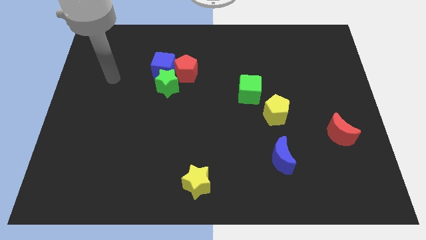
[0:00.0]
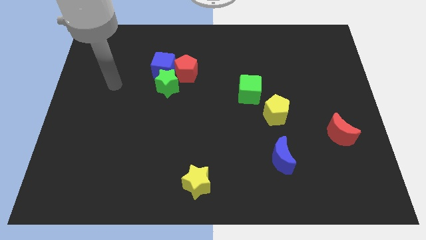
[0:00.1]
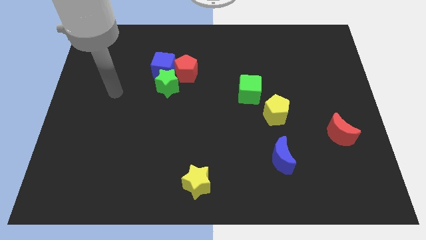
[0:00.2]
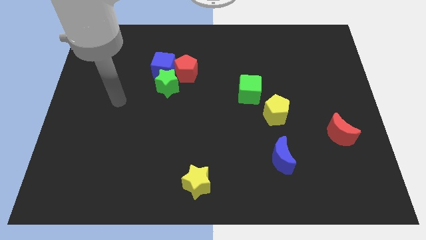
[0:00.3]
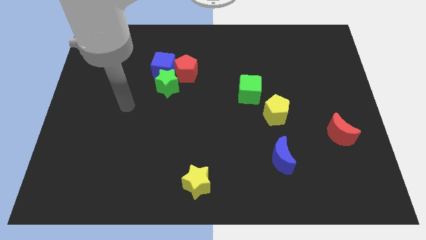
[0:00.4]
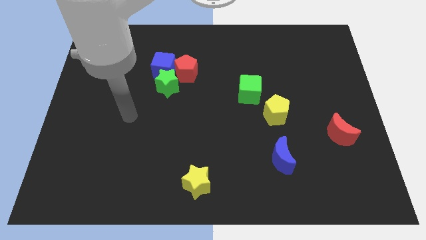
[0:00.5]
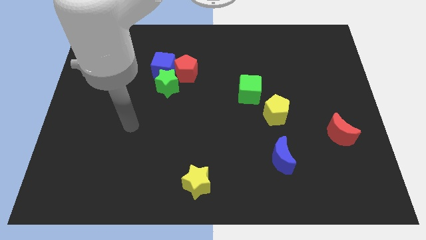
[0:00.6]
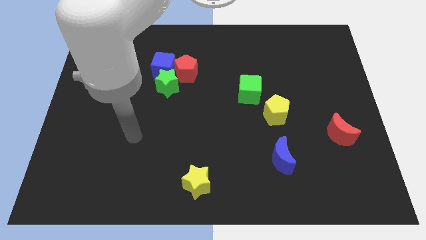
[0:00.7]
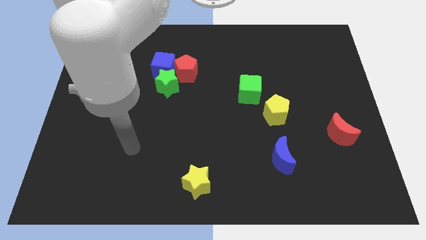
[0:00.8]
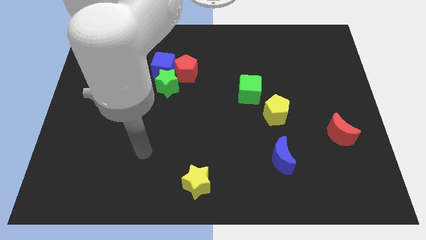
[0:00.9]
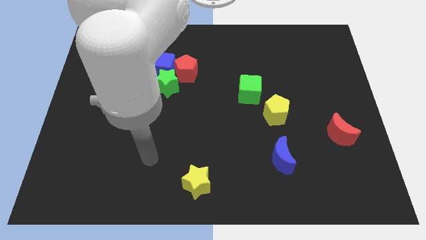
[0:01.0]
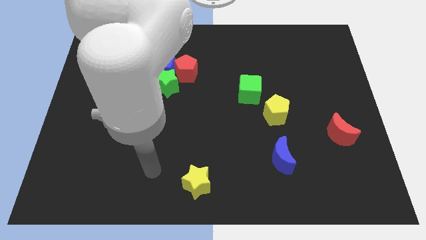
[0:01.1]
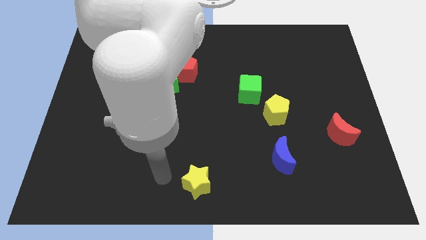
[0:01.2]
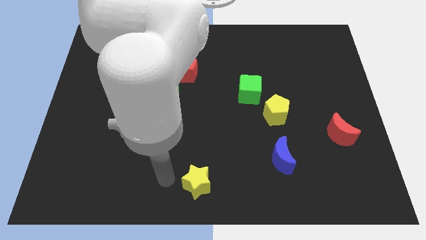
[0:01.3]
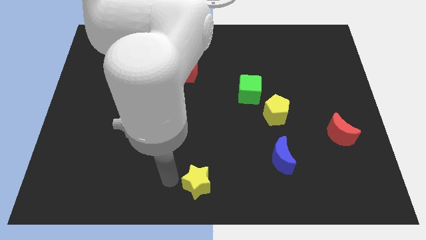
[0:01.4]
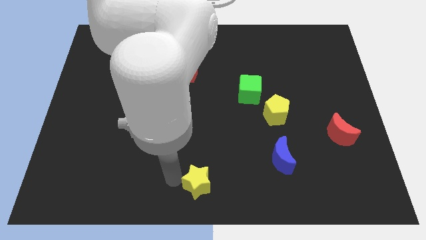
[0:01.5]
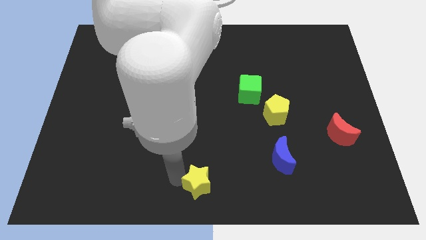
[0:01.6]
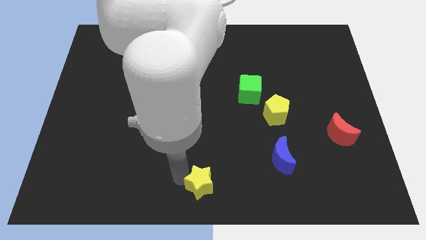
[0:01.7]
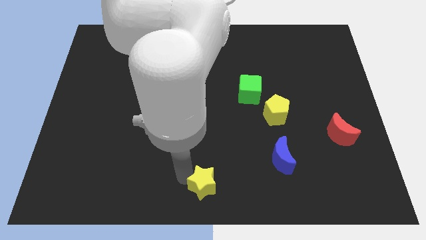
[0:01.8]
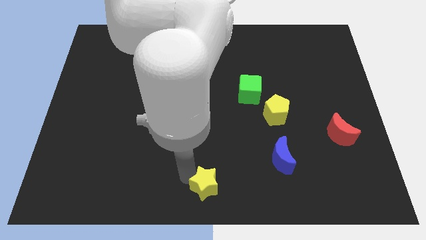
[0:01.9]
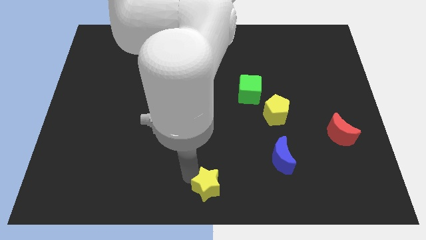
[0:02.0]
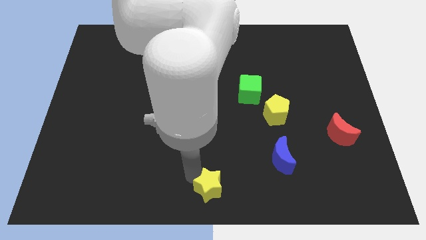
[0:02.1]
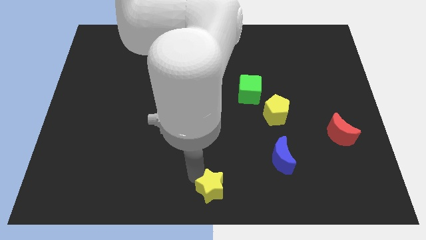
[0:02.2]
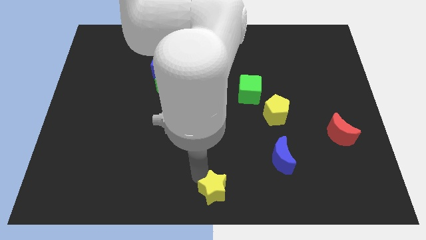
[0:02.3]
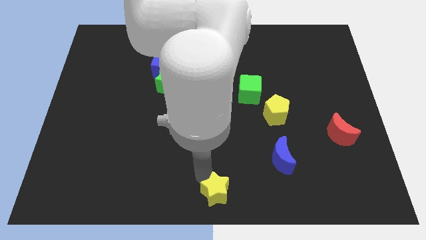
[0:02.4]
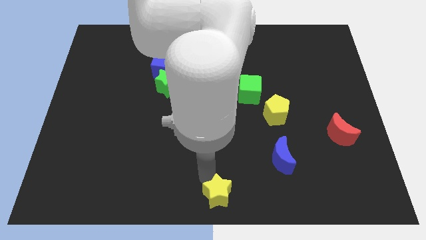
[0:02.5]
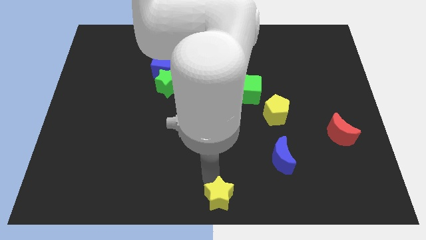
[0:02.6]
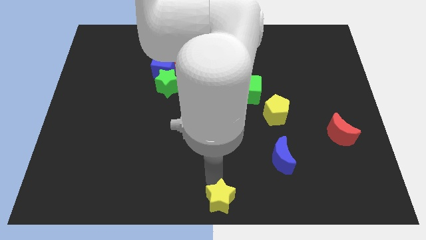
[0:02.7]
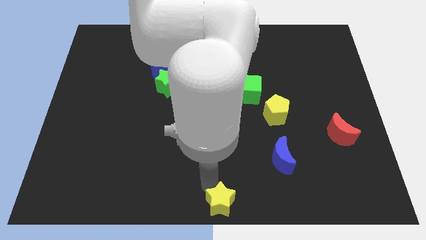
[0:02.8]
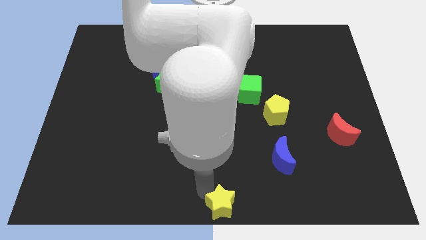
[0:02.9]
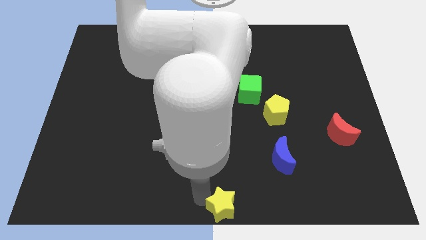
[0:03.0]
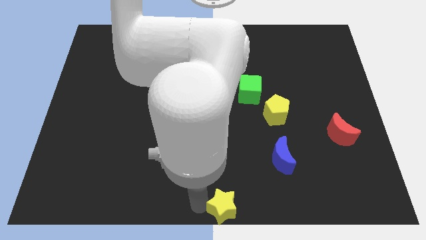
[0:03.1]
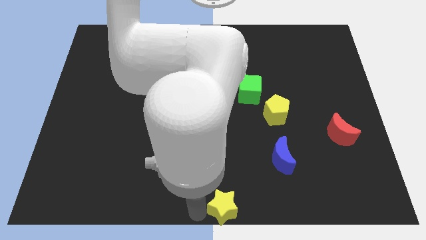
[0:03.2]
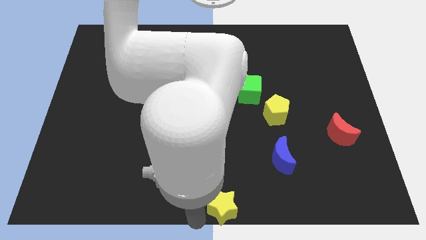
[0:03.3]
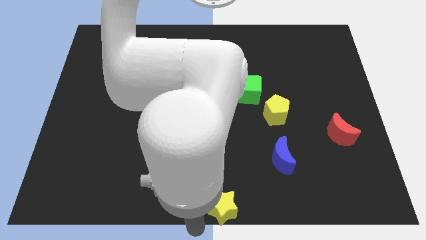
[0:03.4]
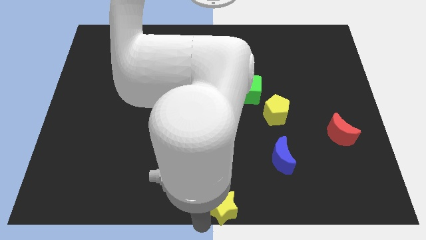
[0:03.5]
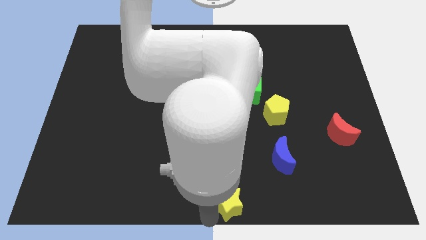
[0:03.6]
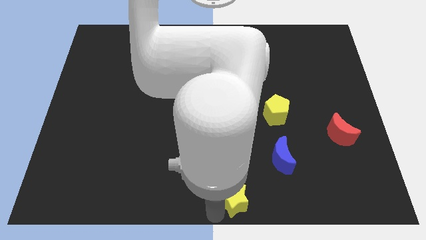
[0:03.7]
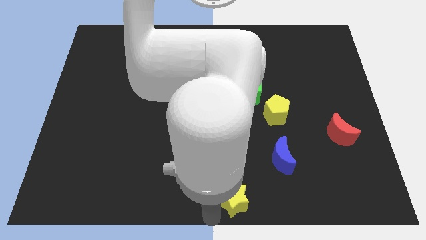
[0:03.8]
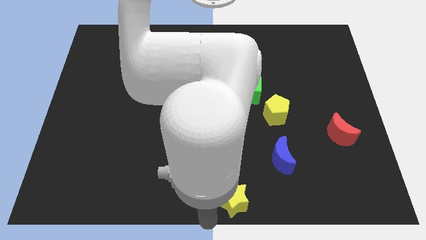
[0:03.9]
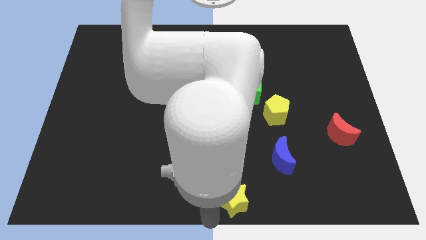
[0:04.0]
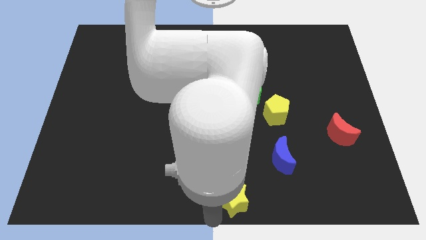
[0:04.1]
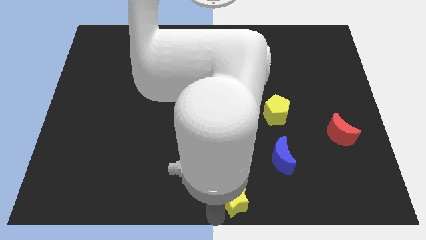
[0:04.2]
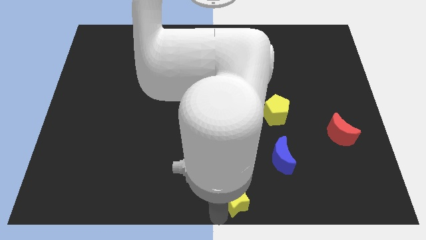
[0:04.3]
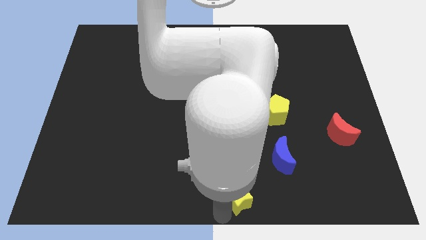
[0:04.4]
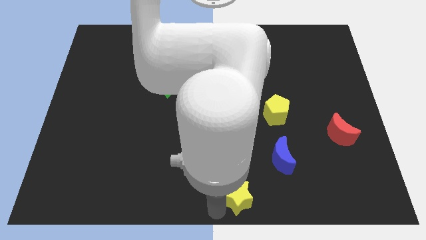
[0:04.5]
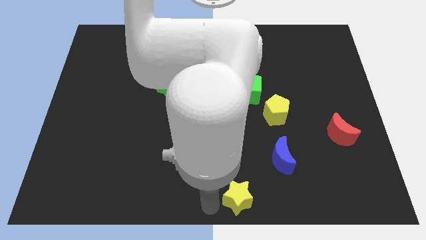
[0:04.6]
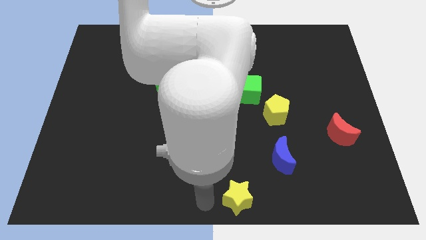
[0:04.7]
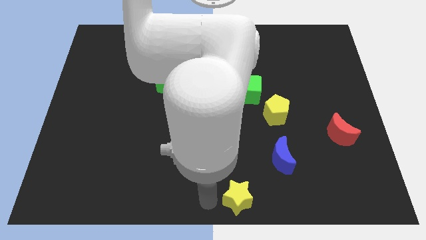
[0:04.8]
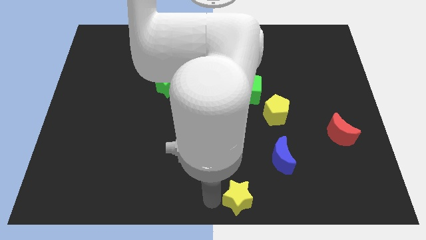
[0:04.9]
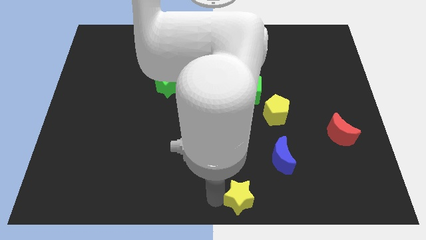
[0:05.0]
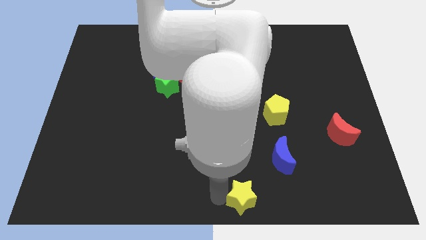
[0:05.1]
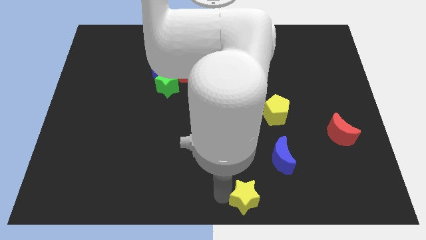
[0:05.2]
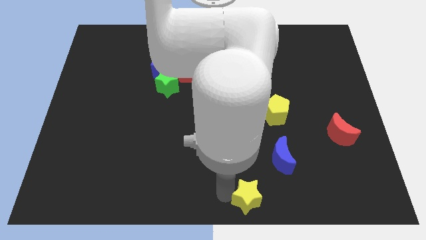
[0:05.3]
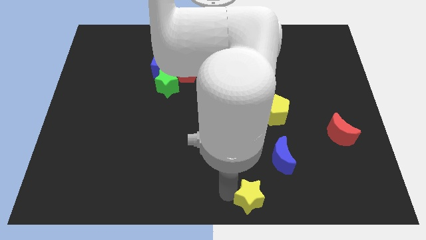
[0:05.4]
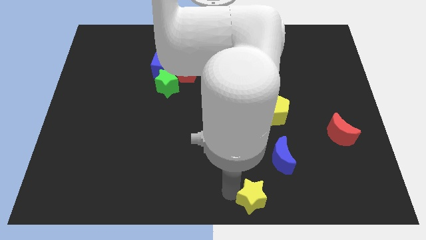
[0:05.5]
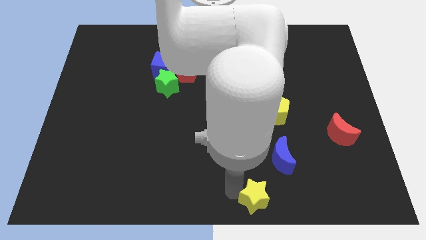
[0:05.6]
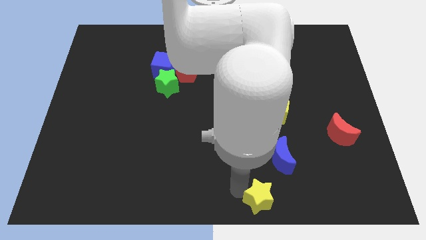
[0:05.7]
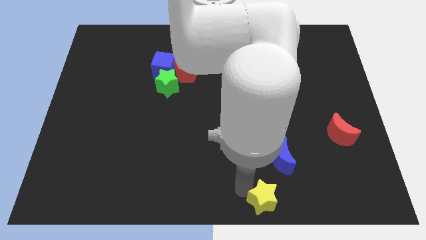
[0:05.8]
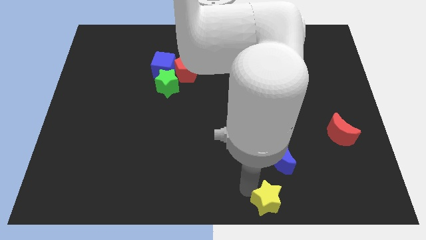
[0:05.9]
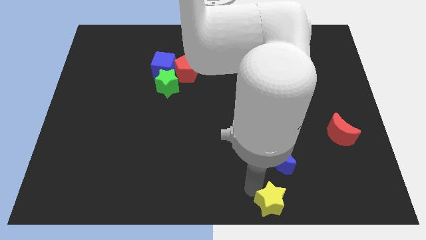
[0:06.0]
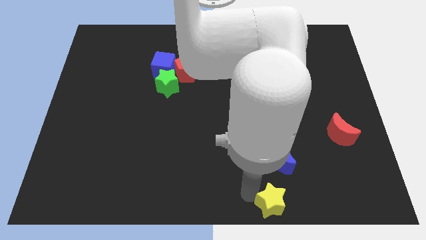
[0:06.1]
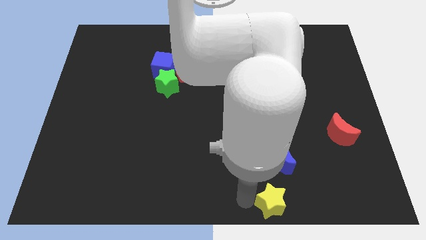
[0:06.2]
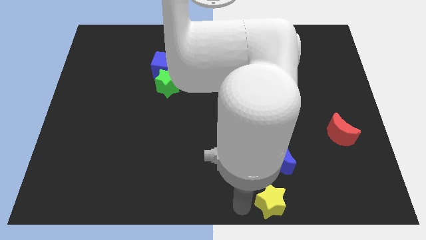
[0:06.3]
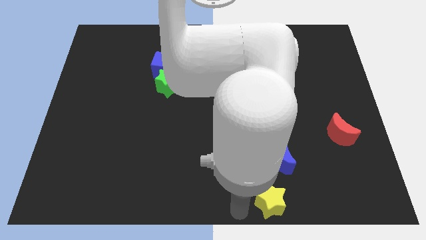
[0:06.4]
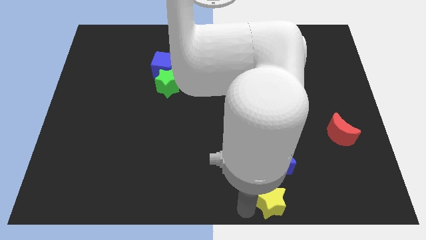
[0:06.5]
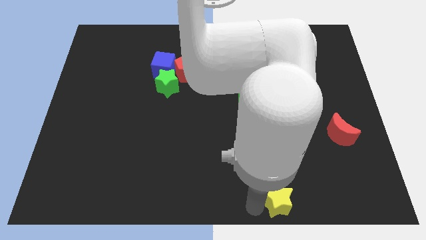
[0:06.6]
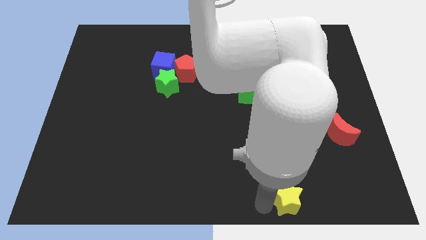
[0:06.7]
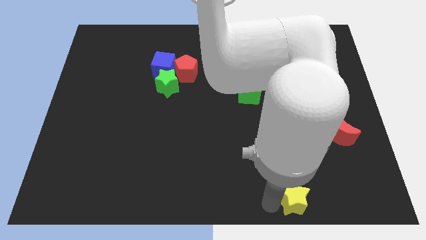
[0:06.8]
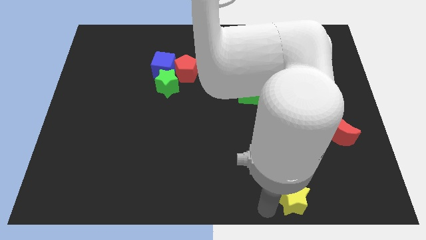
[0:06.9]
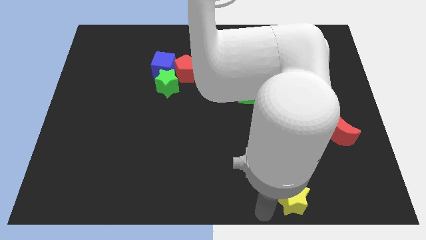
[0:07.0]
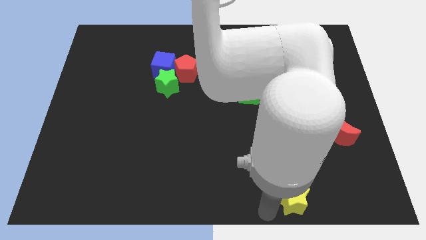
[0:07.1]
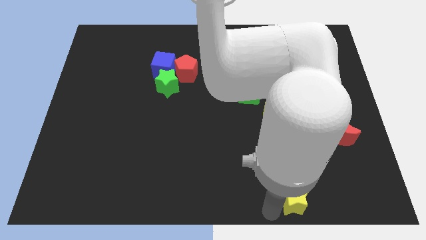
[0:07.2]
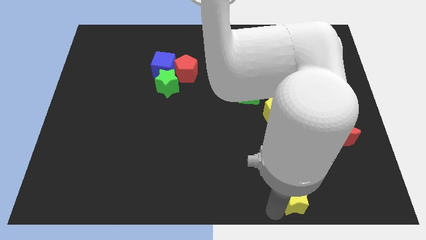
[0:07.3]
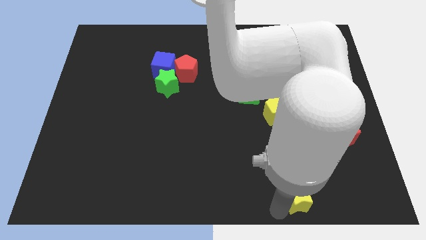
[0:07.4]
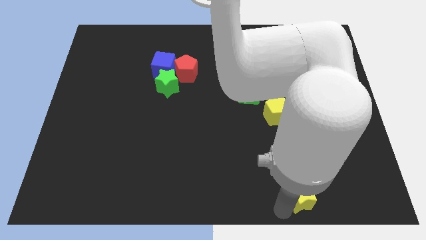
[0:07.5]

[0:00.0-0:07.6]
push the yellow star right

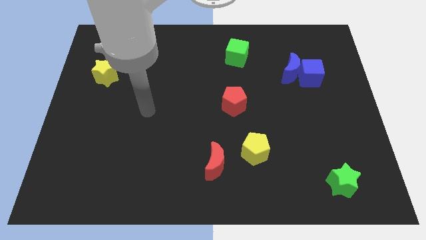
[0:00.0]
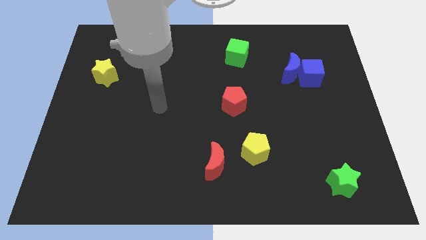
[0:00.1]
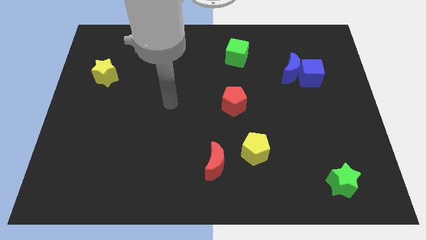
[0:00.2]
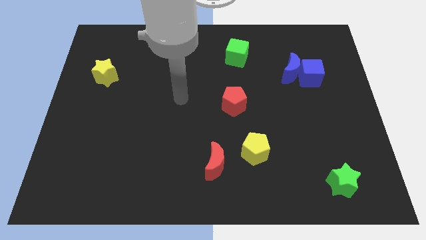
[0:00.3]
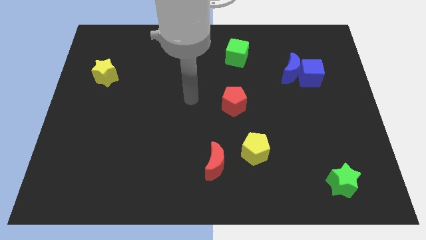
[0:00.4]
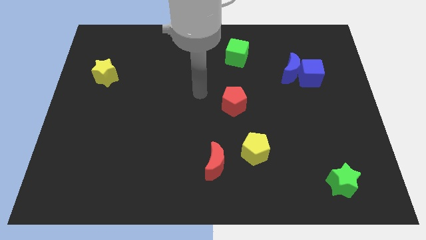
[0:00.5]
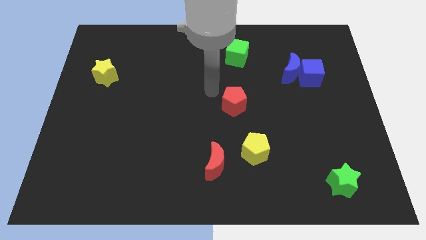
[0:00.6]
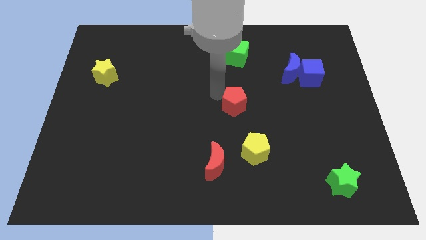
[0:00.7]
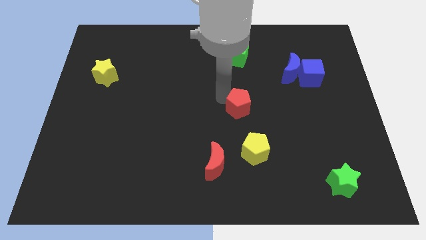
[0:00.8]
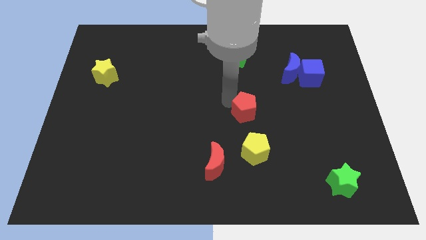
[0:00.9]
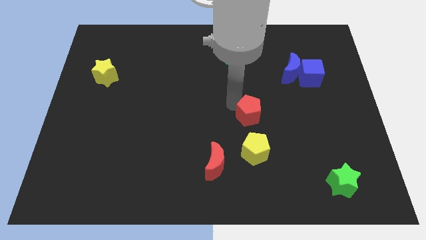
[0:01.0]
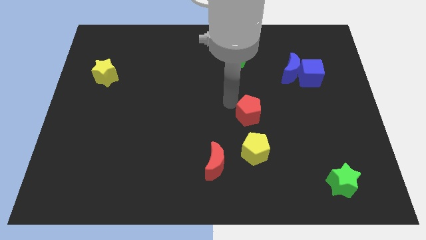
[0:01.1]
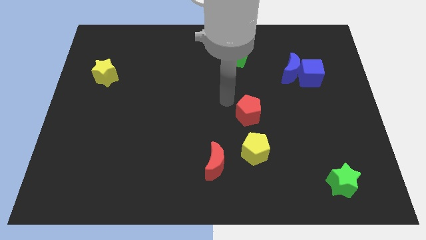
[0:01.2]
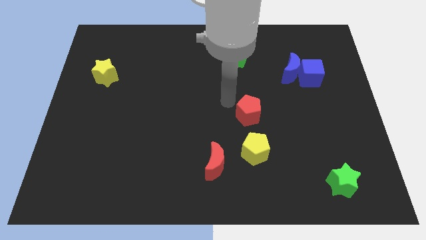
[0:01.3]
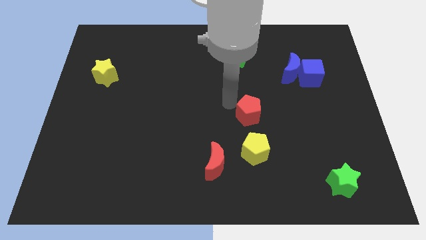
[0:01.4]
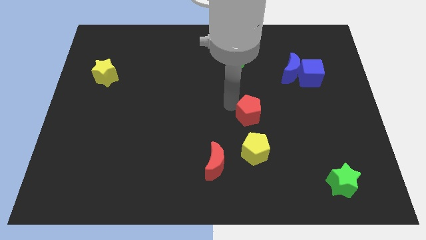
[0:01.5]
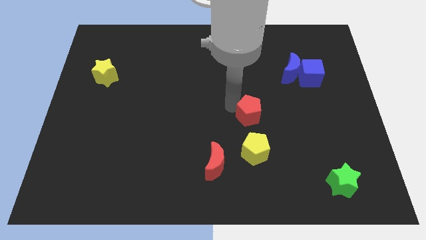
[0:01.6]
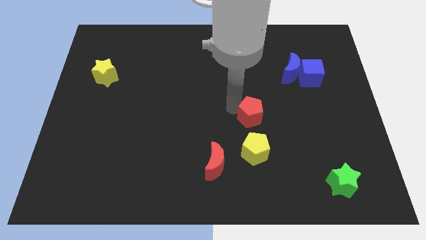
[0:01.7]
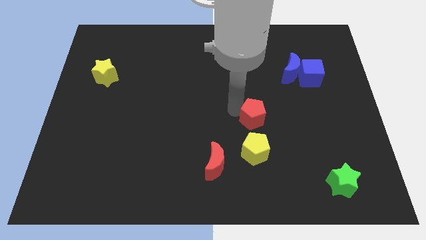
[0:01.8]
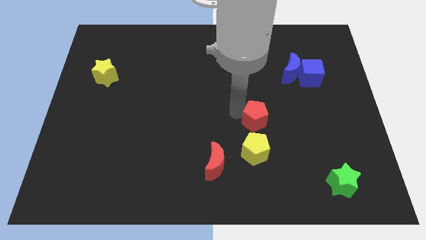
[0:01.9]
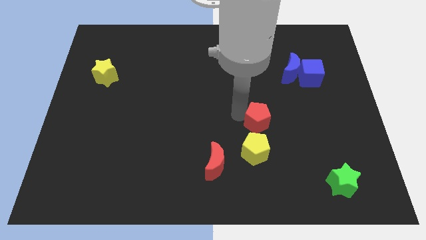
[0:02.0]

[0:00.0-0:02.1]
slightly move the red pentagon diagonally downwards and to the right
